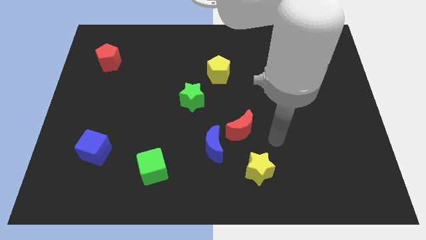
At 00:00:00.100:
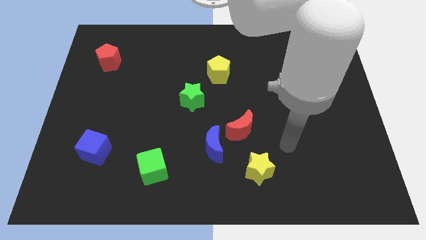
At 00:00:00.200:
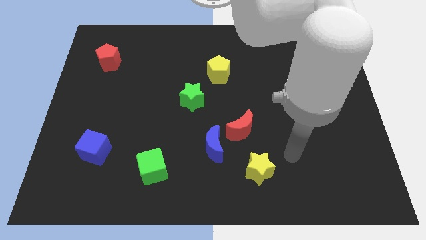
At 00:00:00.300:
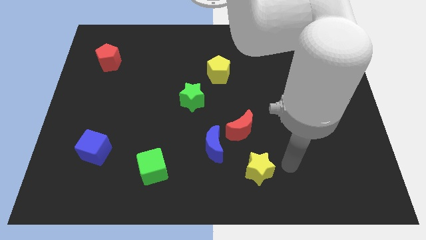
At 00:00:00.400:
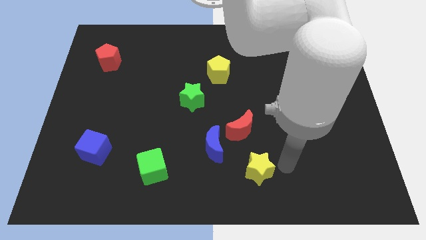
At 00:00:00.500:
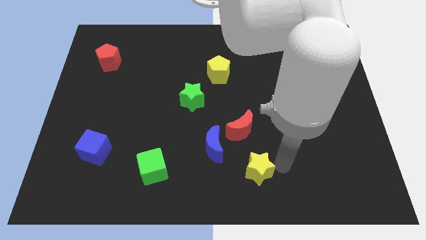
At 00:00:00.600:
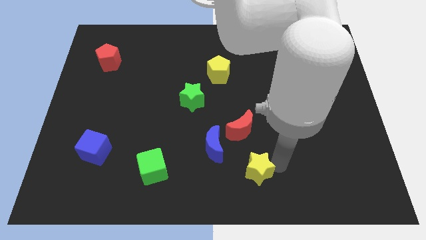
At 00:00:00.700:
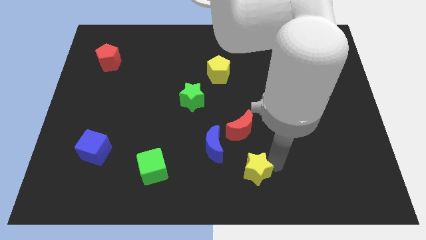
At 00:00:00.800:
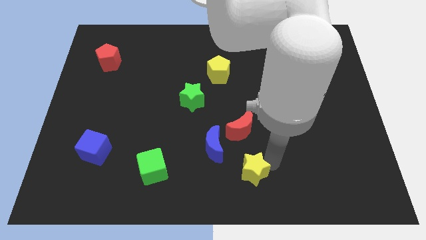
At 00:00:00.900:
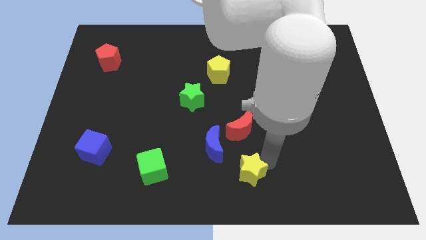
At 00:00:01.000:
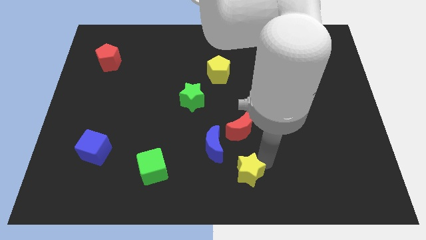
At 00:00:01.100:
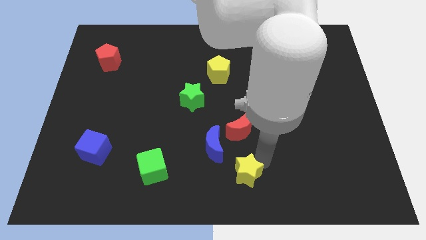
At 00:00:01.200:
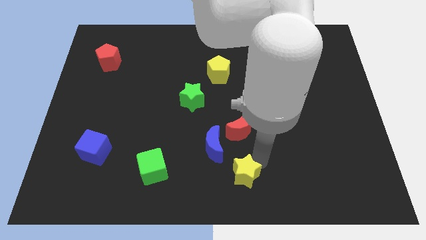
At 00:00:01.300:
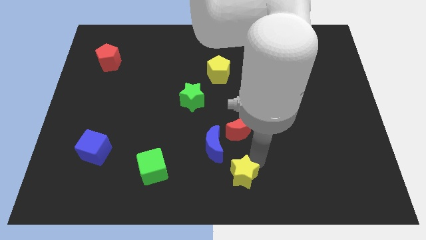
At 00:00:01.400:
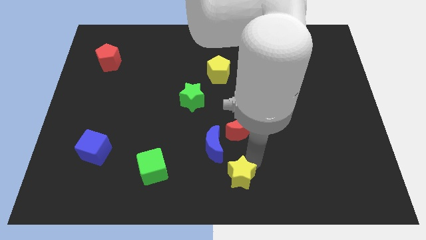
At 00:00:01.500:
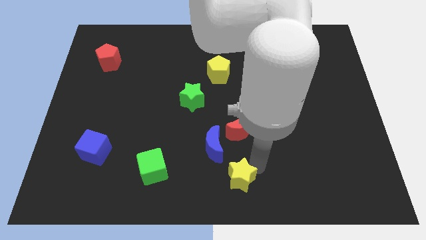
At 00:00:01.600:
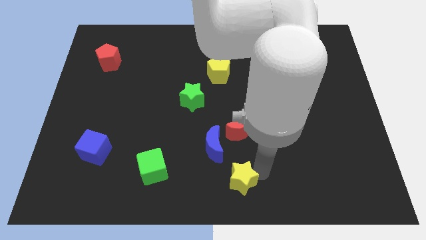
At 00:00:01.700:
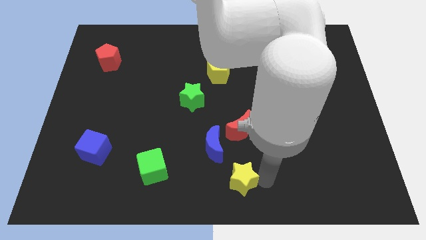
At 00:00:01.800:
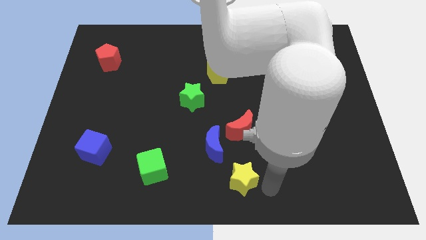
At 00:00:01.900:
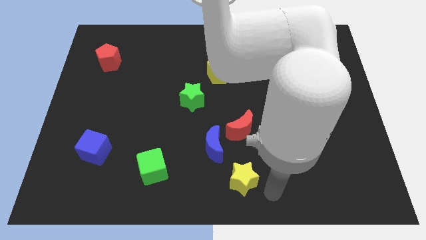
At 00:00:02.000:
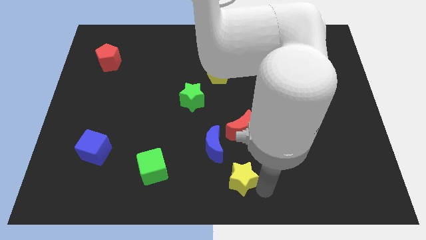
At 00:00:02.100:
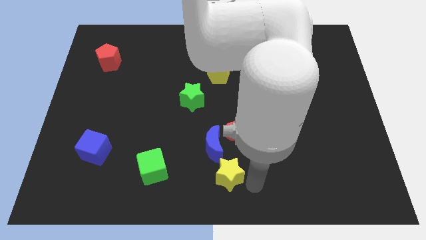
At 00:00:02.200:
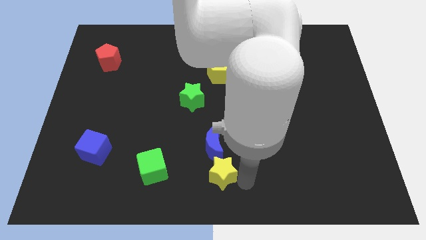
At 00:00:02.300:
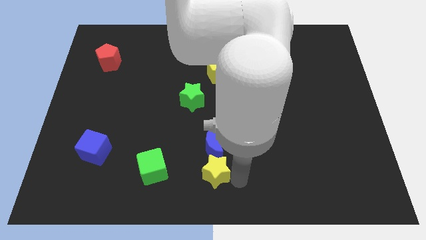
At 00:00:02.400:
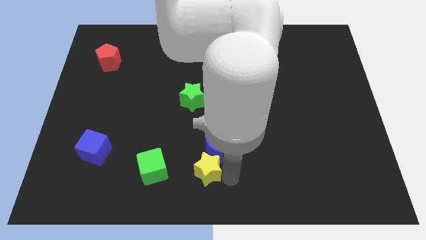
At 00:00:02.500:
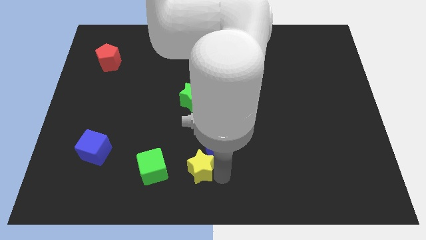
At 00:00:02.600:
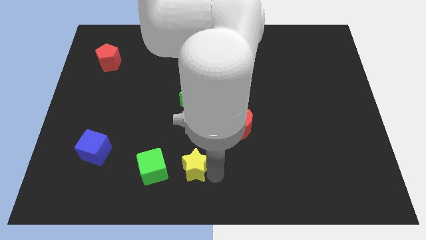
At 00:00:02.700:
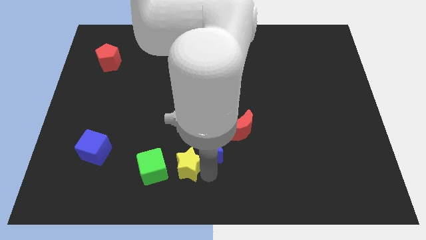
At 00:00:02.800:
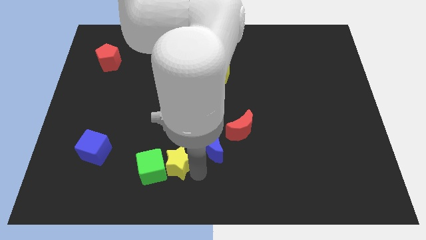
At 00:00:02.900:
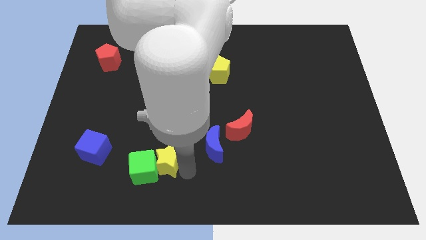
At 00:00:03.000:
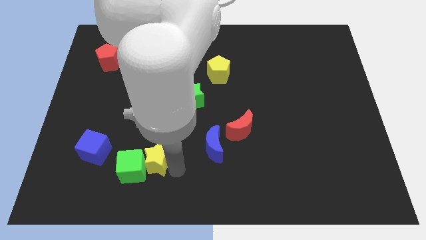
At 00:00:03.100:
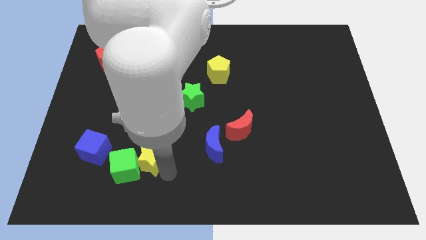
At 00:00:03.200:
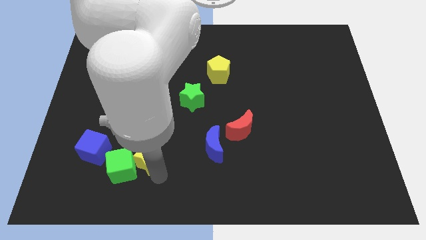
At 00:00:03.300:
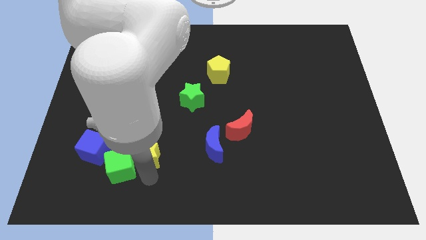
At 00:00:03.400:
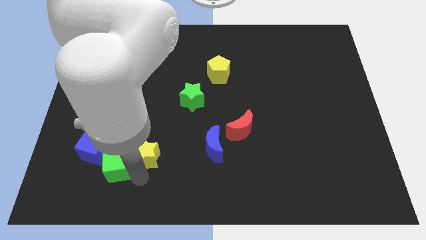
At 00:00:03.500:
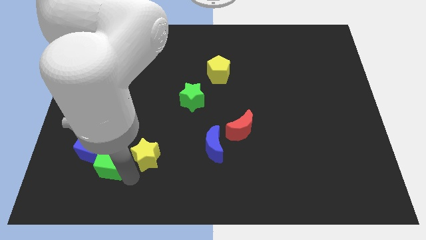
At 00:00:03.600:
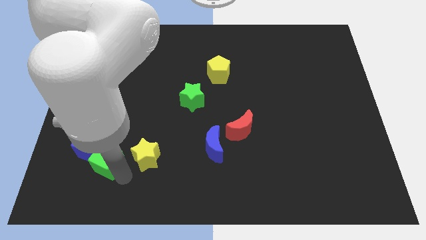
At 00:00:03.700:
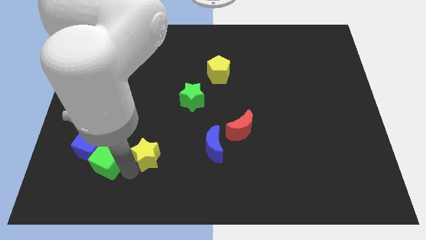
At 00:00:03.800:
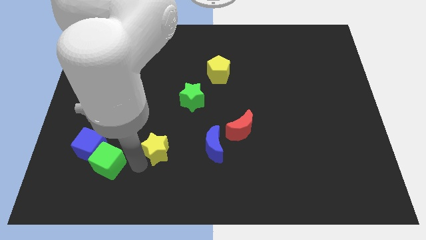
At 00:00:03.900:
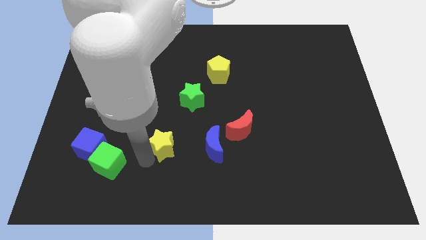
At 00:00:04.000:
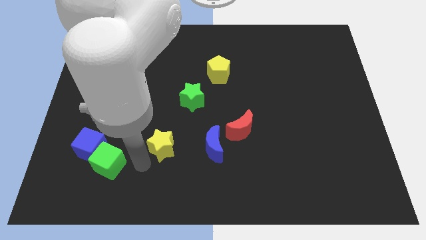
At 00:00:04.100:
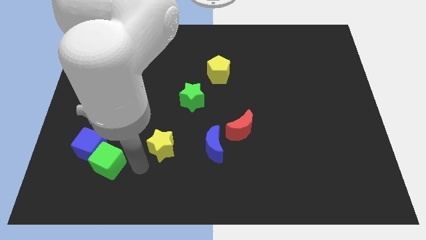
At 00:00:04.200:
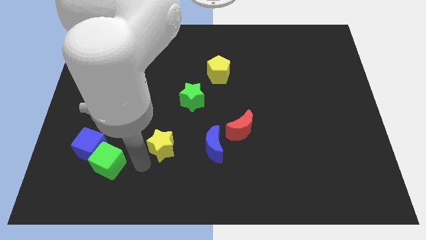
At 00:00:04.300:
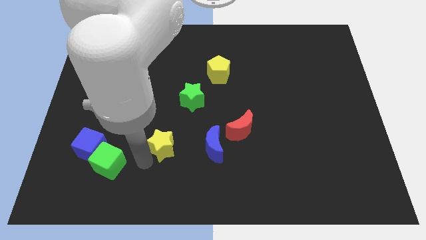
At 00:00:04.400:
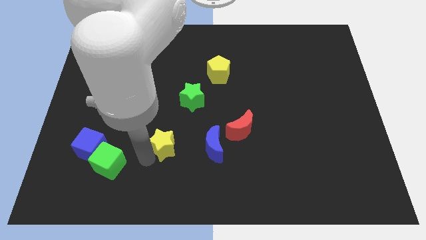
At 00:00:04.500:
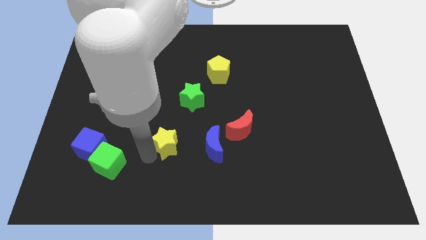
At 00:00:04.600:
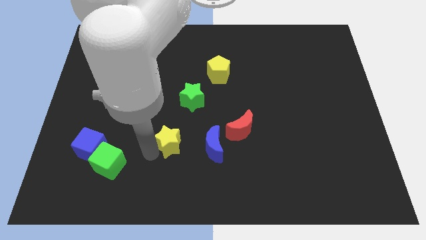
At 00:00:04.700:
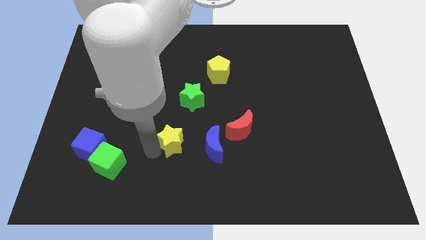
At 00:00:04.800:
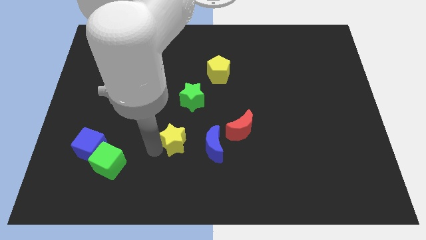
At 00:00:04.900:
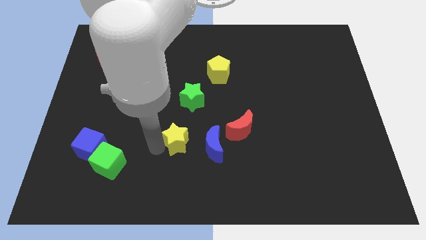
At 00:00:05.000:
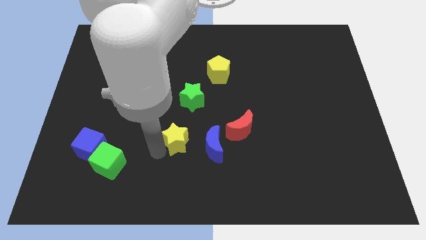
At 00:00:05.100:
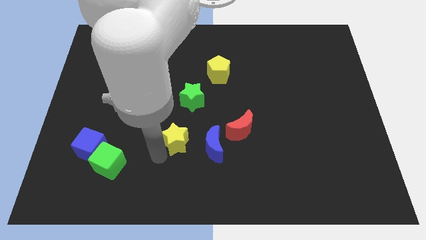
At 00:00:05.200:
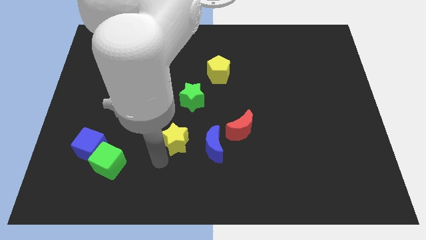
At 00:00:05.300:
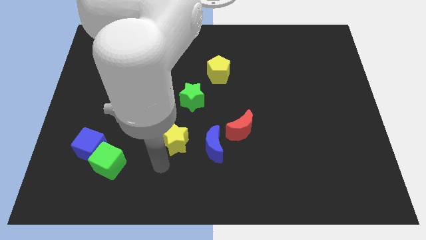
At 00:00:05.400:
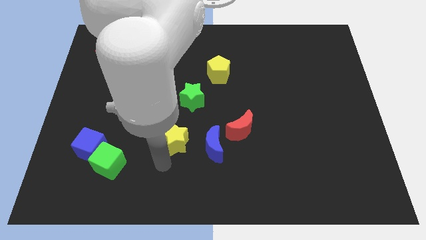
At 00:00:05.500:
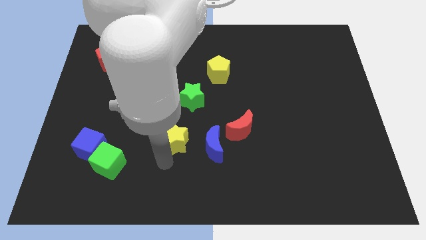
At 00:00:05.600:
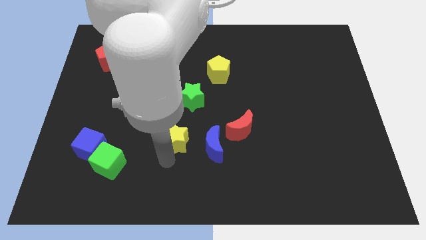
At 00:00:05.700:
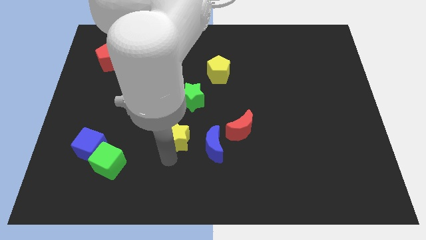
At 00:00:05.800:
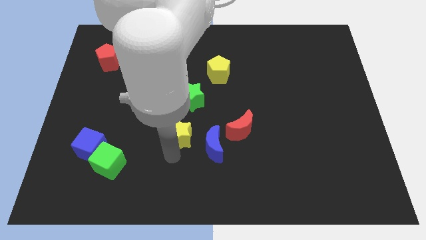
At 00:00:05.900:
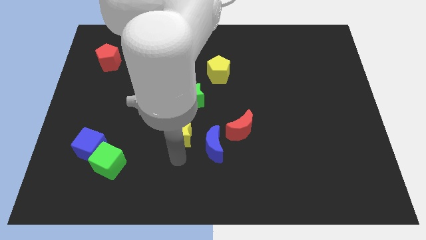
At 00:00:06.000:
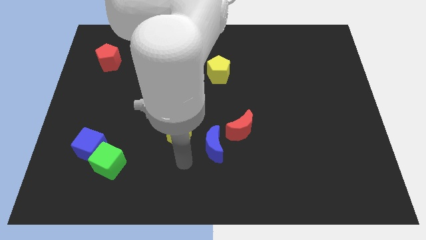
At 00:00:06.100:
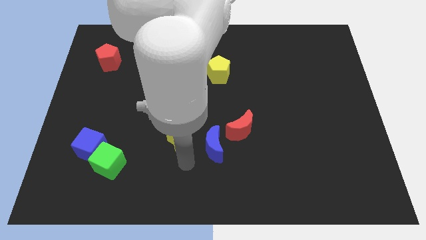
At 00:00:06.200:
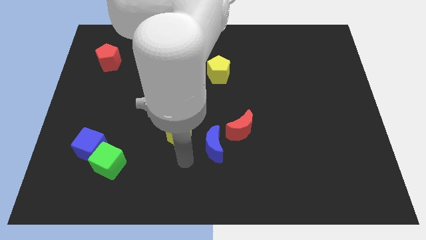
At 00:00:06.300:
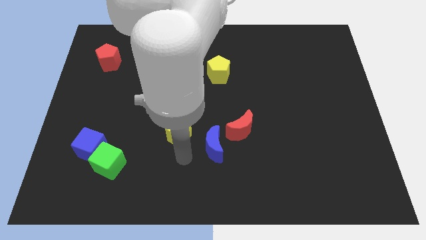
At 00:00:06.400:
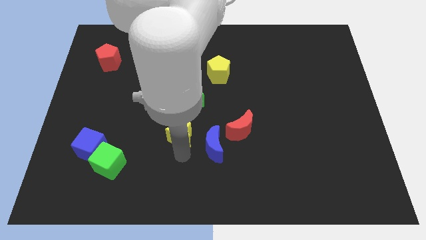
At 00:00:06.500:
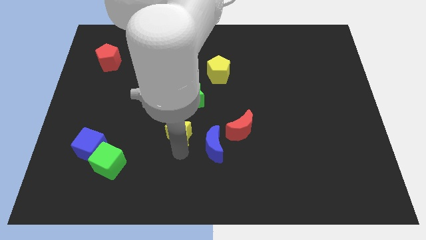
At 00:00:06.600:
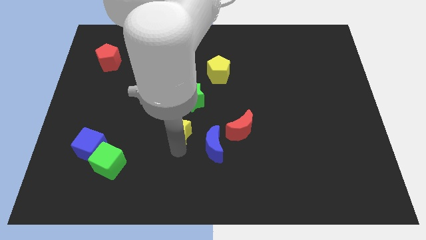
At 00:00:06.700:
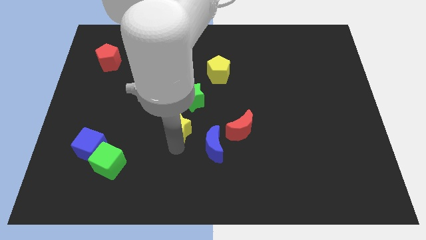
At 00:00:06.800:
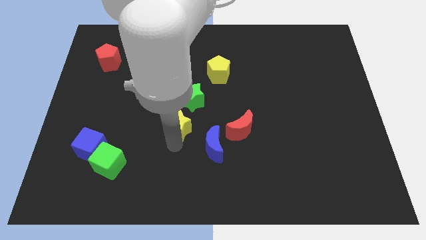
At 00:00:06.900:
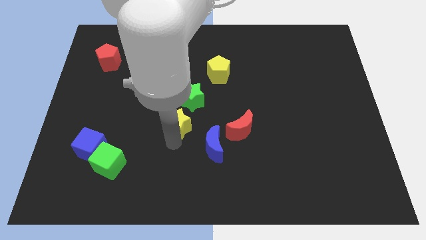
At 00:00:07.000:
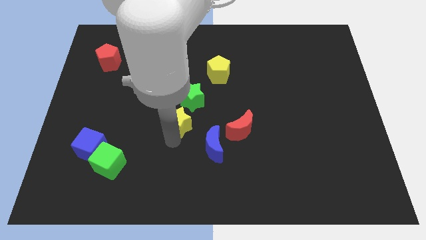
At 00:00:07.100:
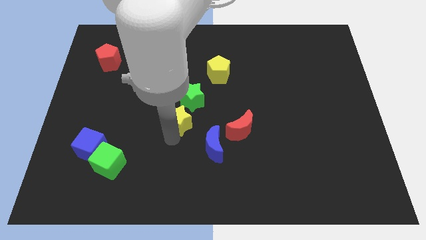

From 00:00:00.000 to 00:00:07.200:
slide the yellow star up and to the left diagonally

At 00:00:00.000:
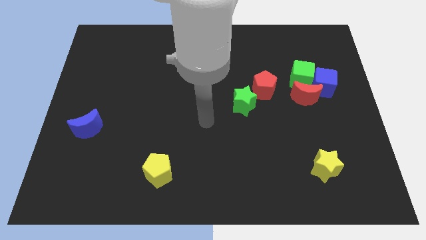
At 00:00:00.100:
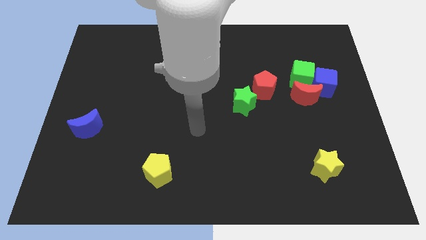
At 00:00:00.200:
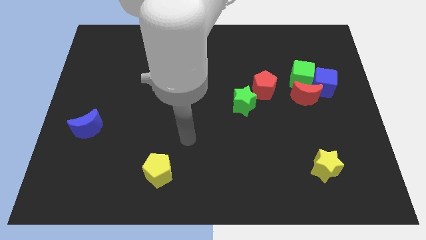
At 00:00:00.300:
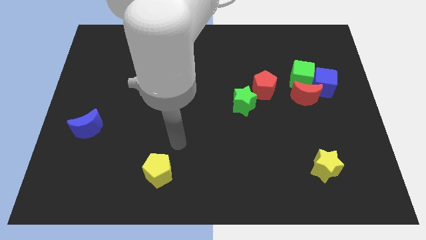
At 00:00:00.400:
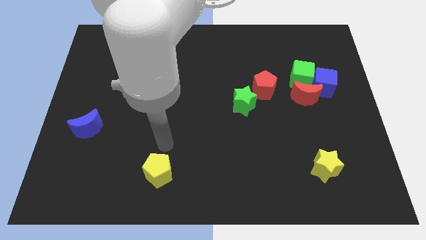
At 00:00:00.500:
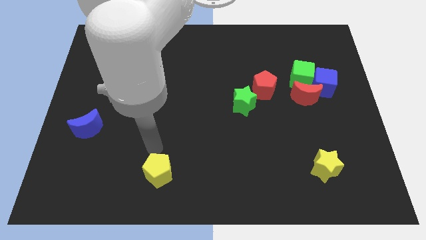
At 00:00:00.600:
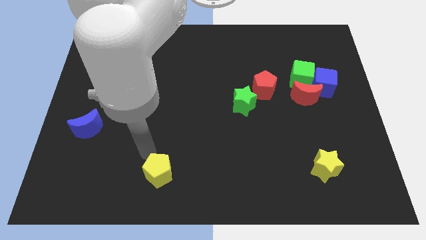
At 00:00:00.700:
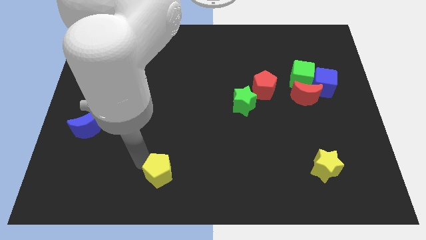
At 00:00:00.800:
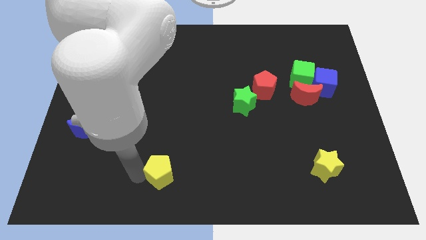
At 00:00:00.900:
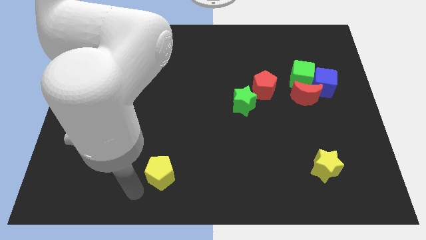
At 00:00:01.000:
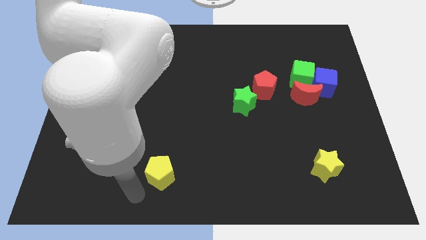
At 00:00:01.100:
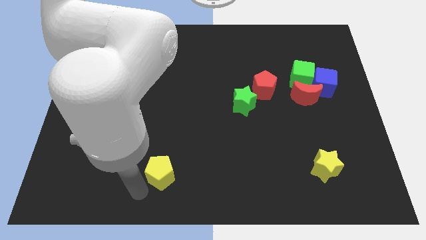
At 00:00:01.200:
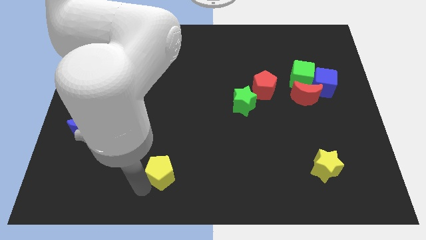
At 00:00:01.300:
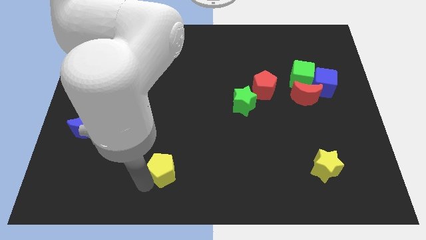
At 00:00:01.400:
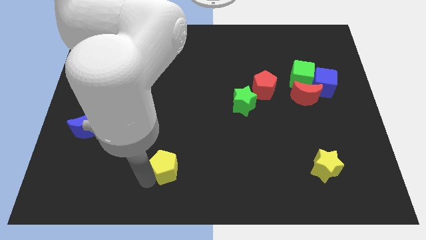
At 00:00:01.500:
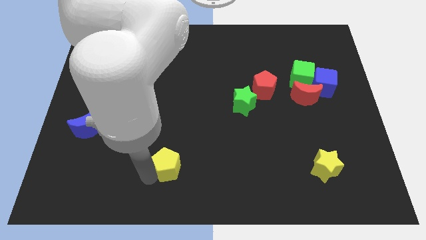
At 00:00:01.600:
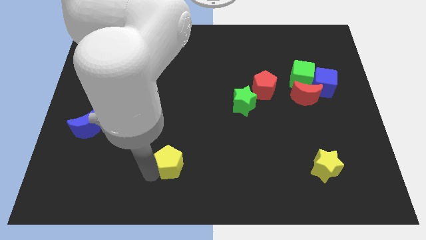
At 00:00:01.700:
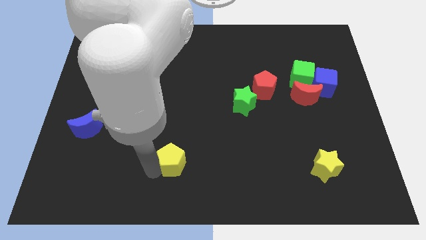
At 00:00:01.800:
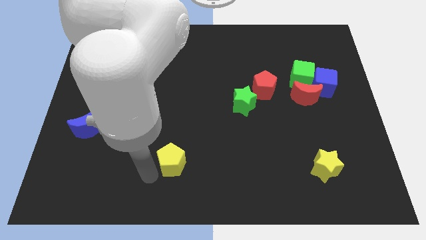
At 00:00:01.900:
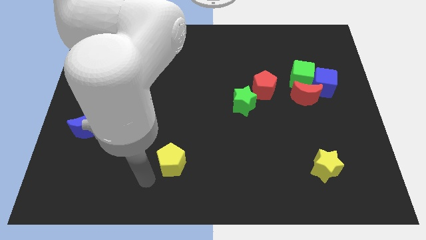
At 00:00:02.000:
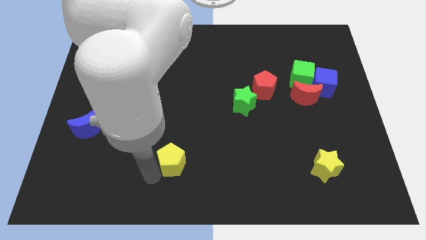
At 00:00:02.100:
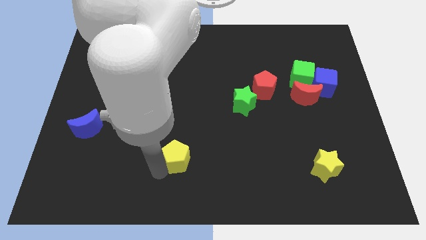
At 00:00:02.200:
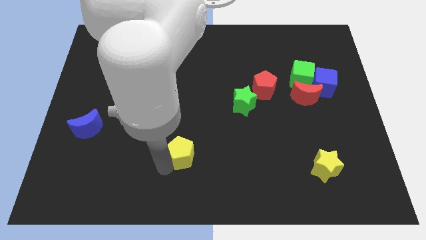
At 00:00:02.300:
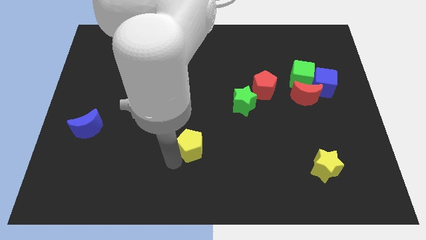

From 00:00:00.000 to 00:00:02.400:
slightly slide the yellow pentagon upwards and right
